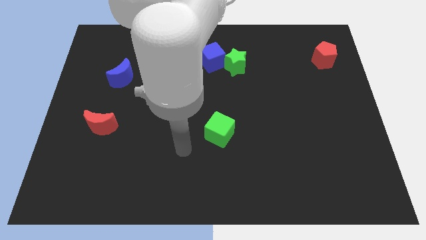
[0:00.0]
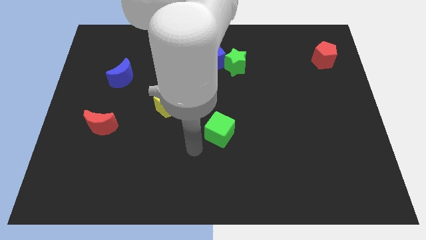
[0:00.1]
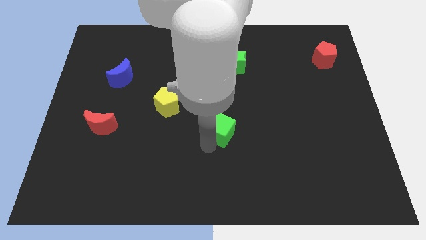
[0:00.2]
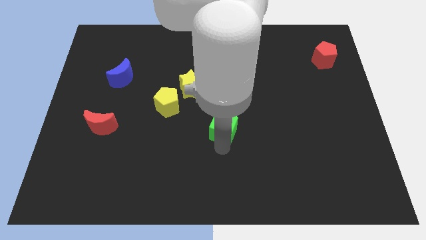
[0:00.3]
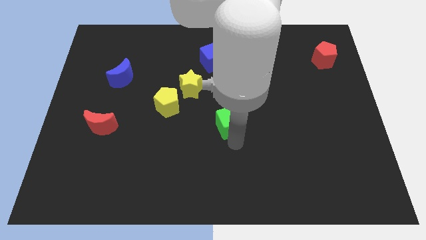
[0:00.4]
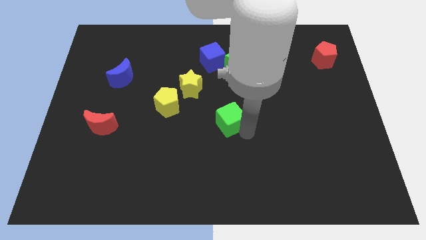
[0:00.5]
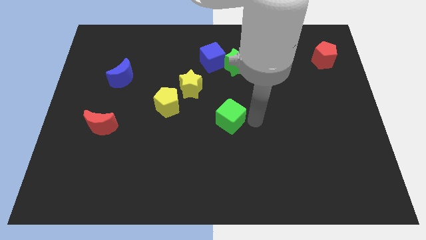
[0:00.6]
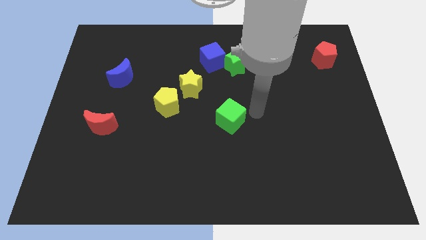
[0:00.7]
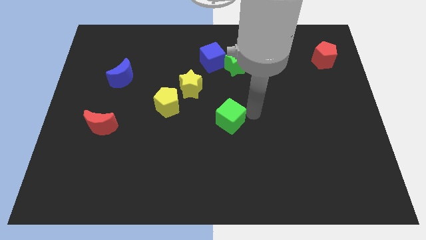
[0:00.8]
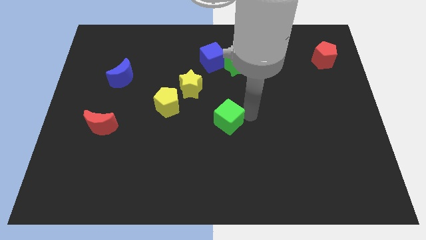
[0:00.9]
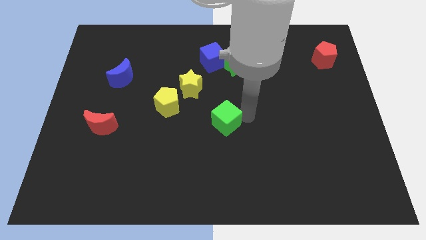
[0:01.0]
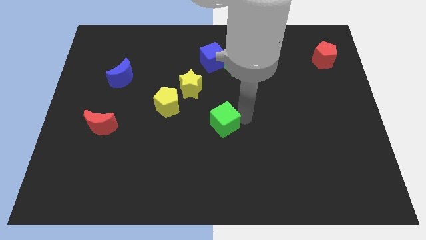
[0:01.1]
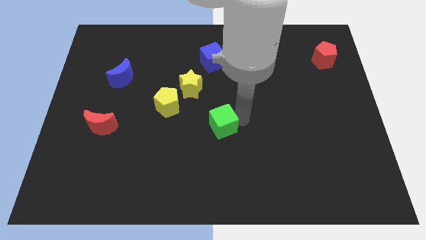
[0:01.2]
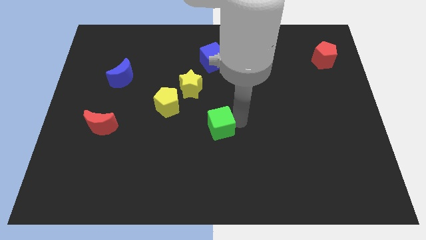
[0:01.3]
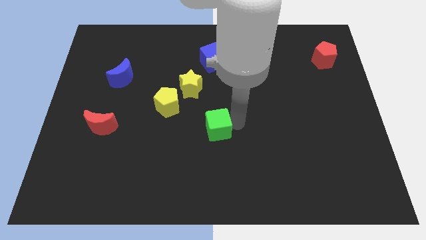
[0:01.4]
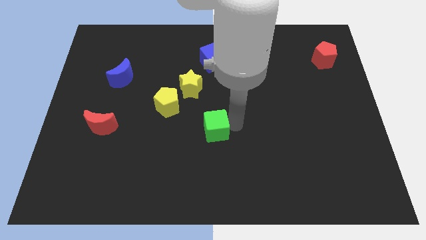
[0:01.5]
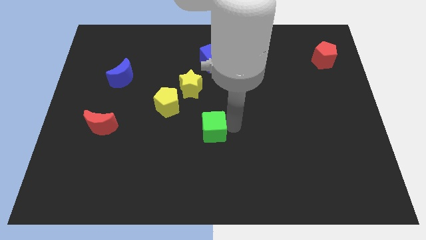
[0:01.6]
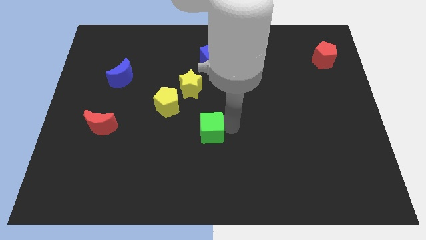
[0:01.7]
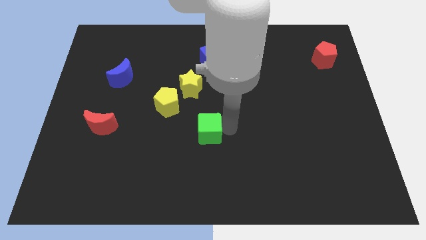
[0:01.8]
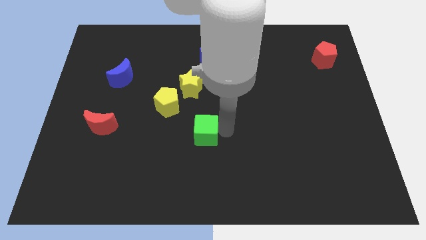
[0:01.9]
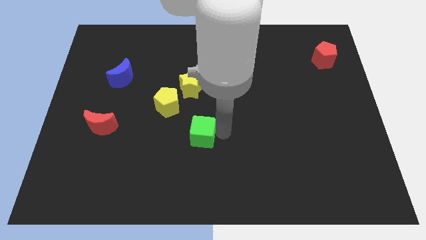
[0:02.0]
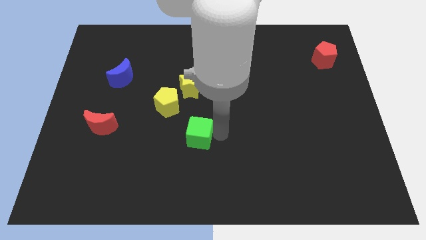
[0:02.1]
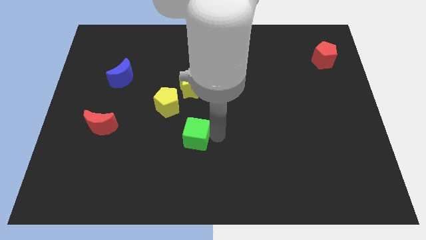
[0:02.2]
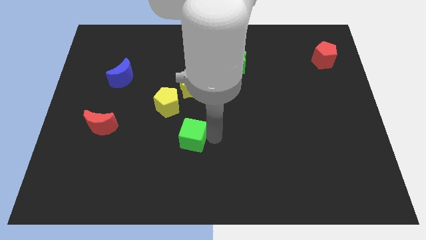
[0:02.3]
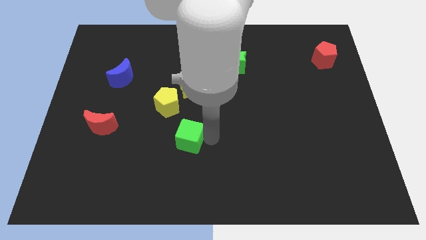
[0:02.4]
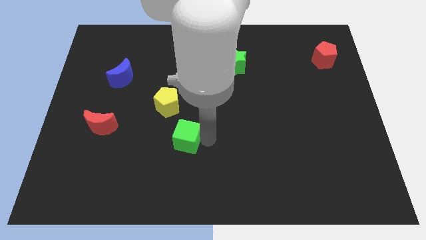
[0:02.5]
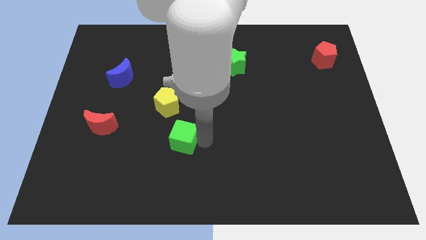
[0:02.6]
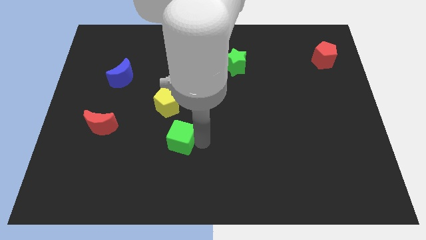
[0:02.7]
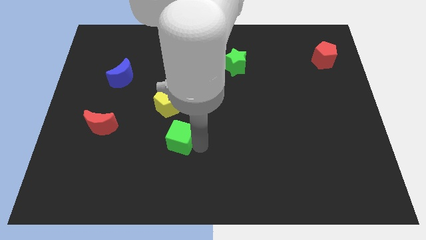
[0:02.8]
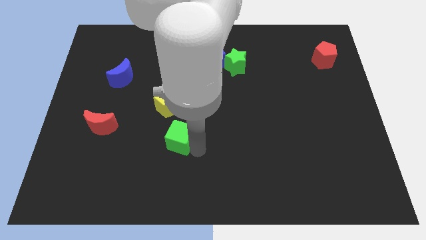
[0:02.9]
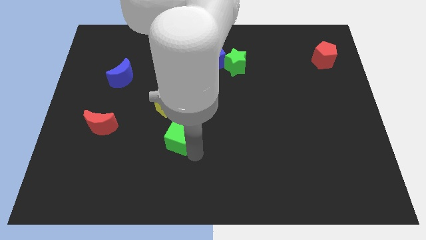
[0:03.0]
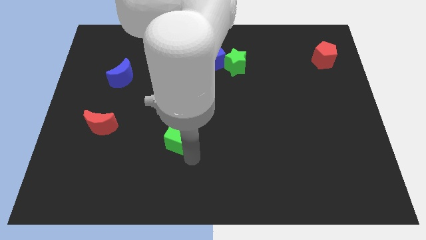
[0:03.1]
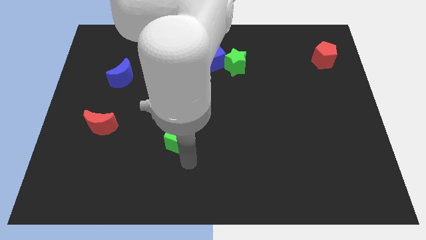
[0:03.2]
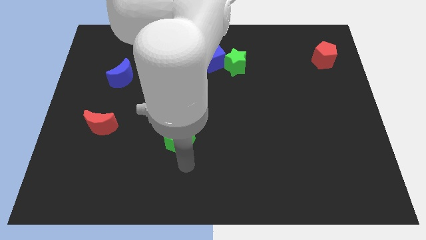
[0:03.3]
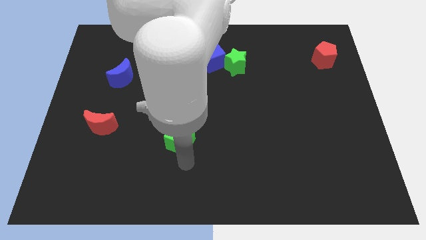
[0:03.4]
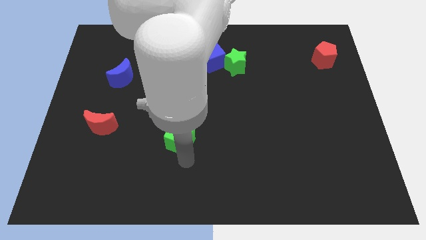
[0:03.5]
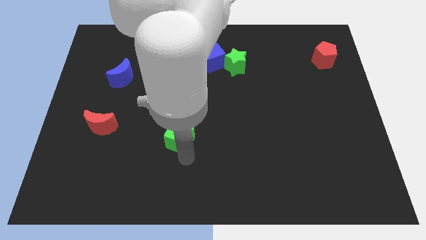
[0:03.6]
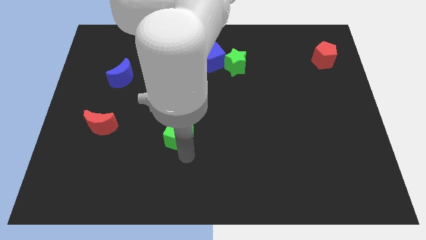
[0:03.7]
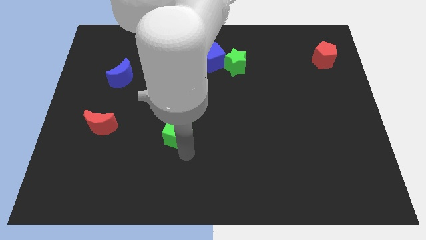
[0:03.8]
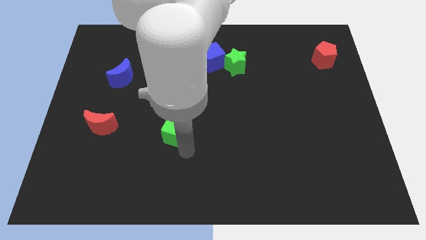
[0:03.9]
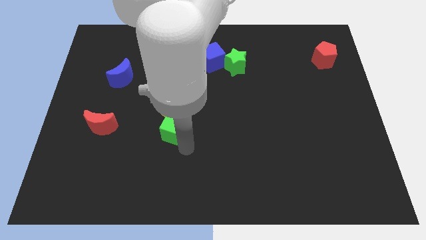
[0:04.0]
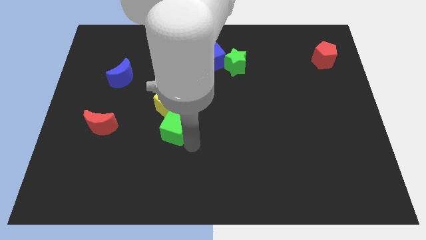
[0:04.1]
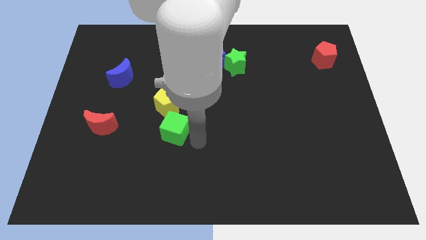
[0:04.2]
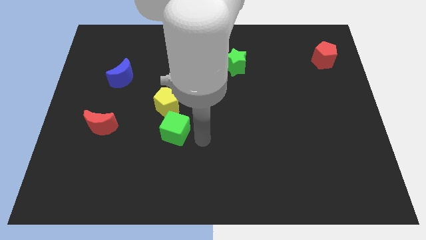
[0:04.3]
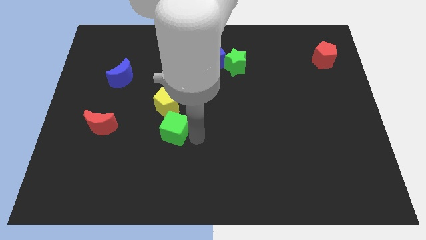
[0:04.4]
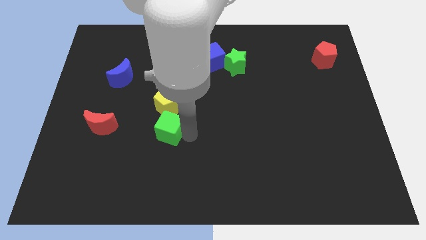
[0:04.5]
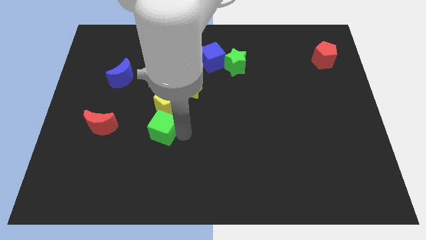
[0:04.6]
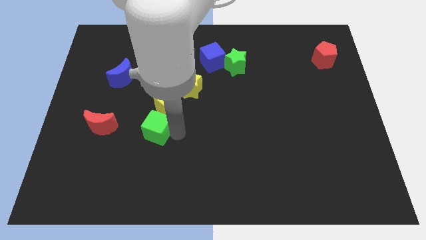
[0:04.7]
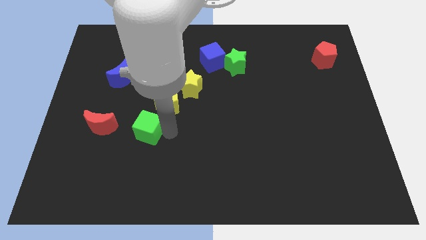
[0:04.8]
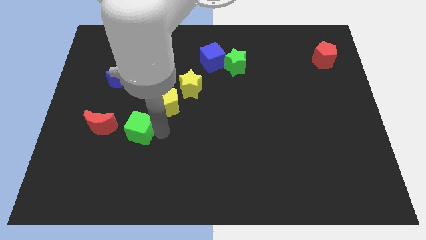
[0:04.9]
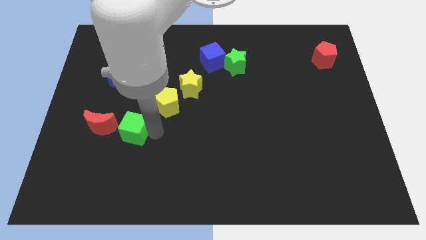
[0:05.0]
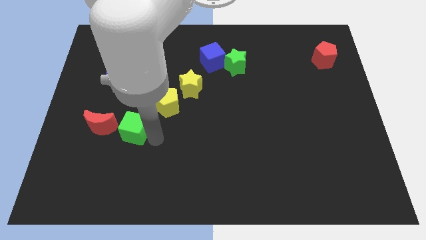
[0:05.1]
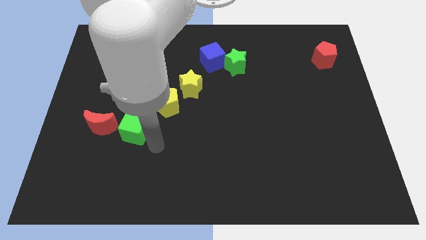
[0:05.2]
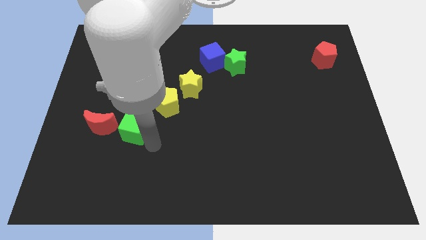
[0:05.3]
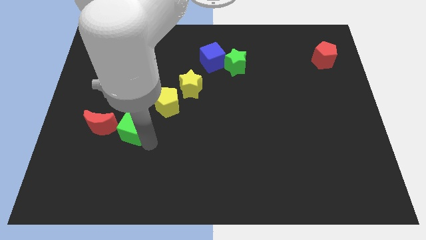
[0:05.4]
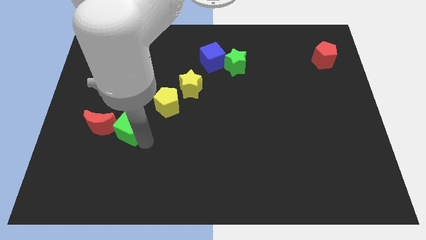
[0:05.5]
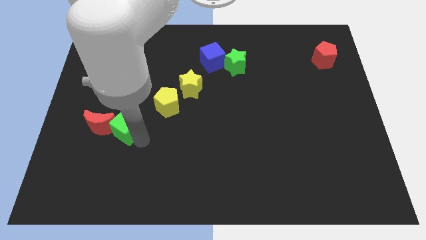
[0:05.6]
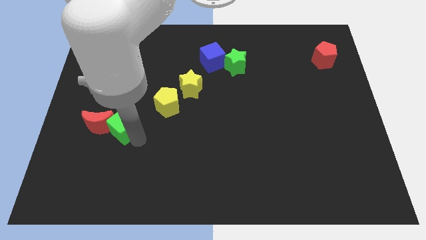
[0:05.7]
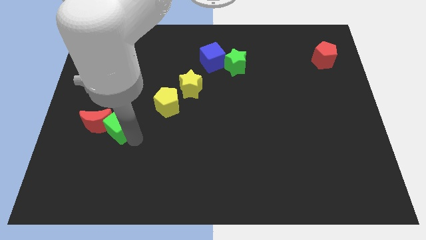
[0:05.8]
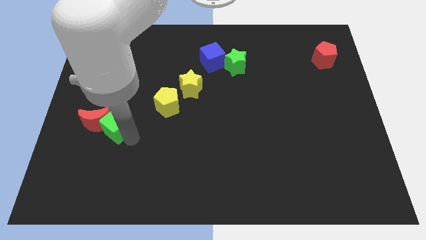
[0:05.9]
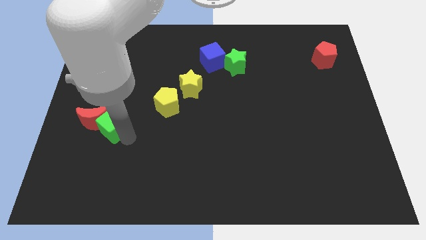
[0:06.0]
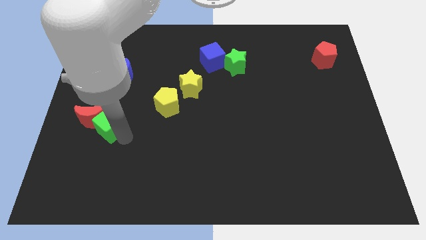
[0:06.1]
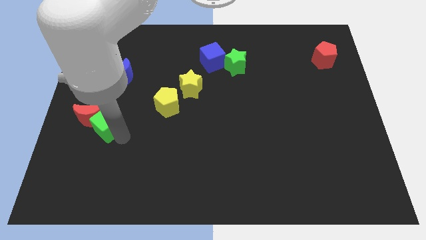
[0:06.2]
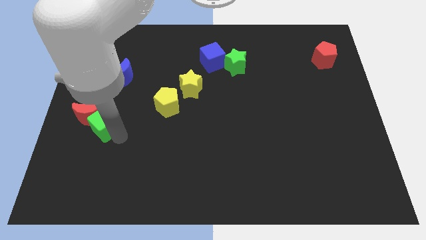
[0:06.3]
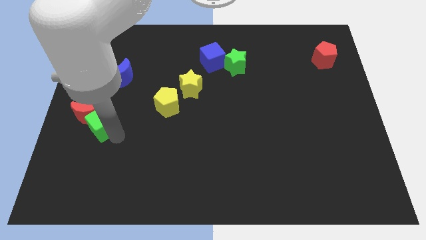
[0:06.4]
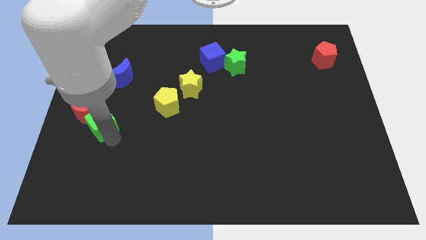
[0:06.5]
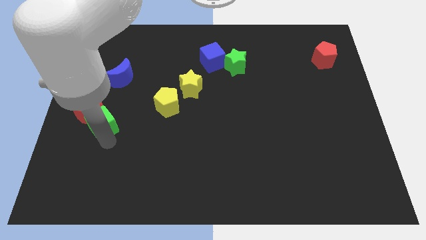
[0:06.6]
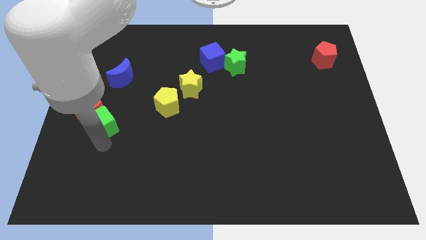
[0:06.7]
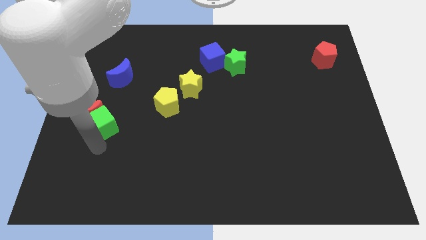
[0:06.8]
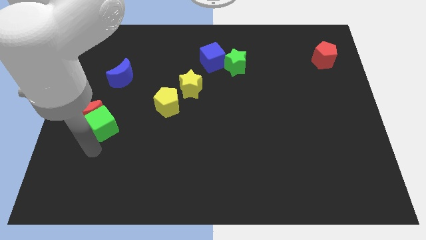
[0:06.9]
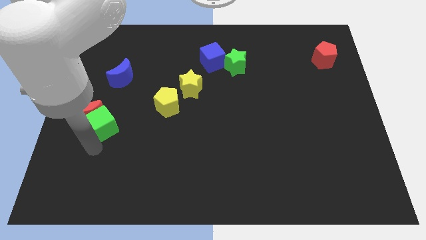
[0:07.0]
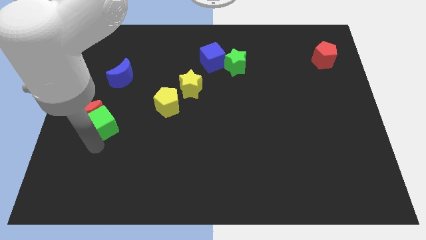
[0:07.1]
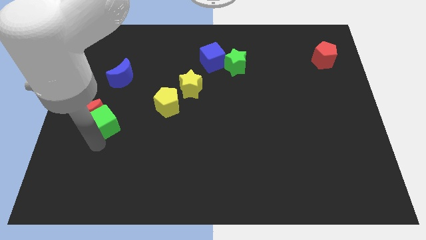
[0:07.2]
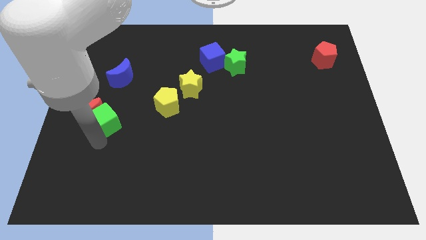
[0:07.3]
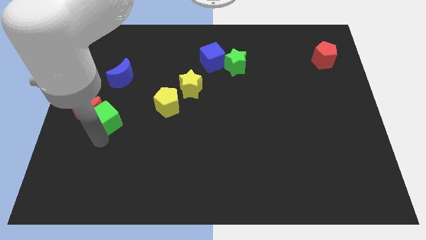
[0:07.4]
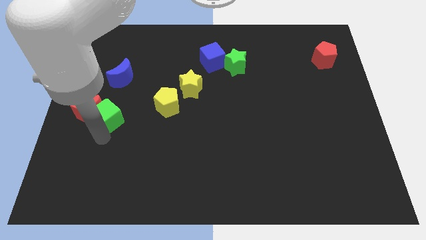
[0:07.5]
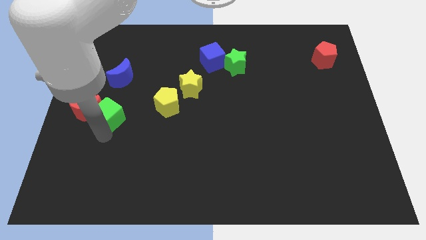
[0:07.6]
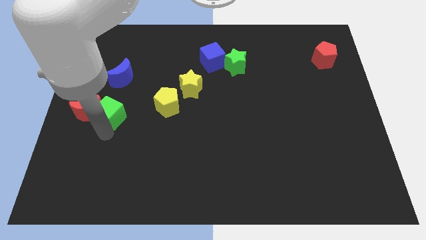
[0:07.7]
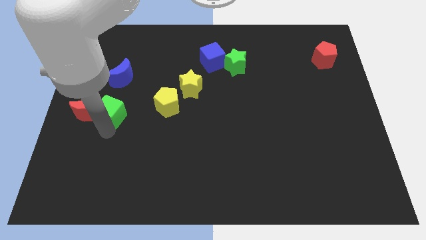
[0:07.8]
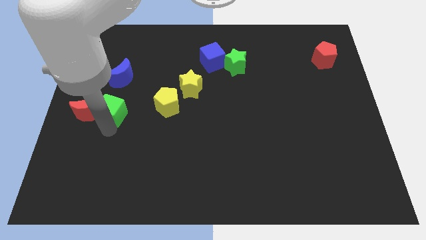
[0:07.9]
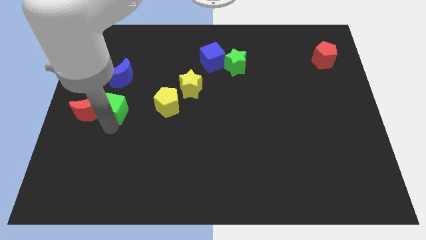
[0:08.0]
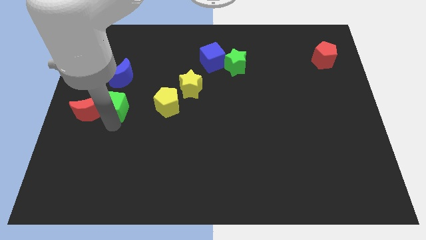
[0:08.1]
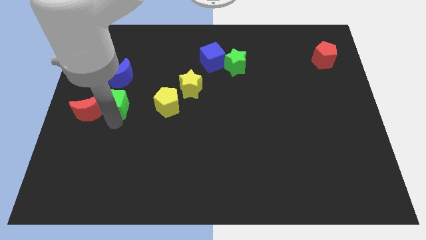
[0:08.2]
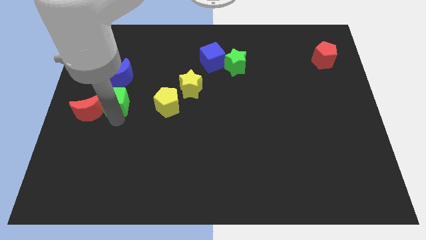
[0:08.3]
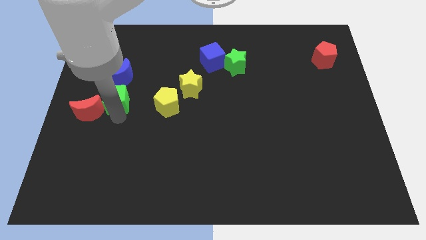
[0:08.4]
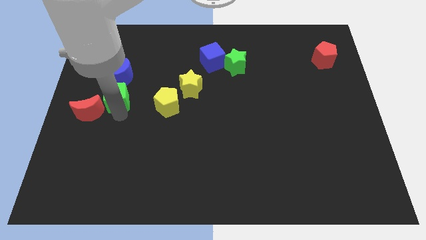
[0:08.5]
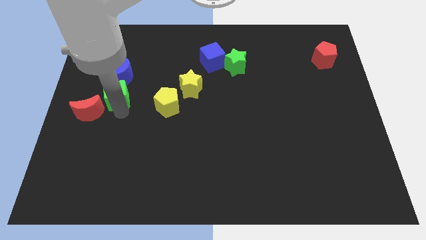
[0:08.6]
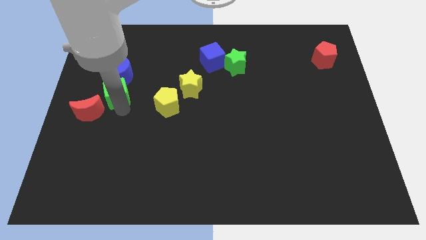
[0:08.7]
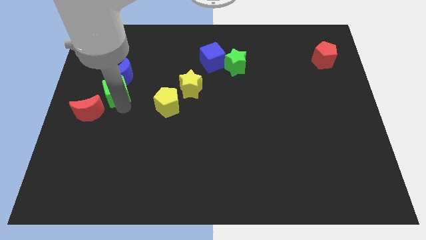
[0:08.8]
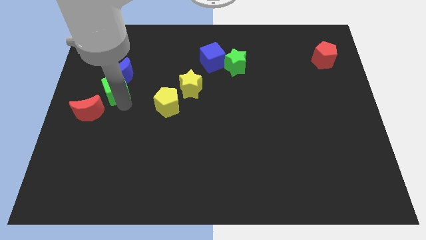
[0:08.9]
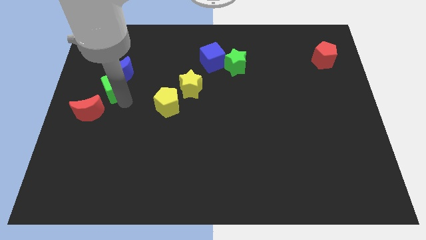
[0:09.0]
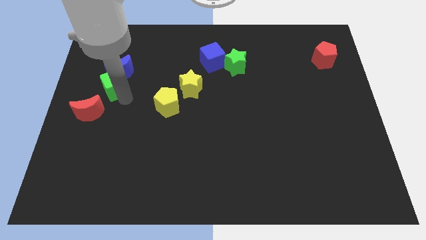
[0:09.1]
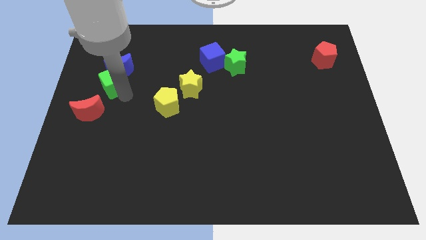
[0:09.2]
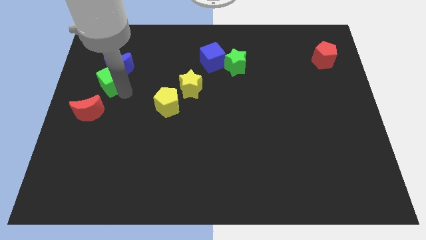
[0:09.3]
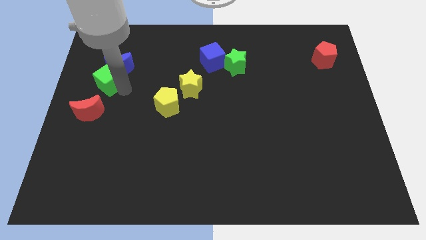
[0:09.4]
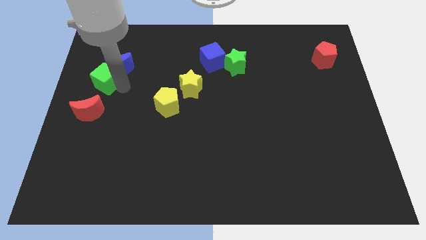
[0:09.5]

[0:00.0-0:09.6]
move the green cube to the left side of the board
